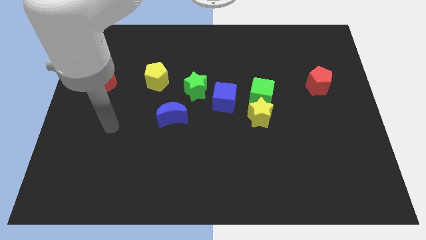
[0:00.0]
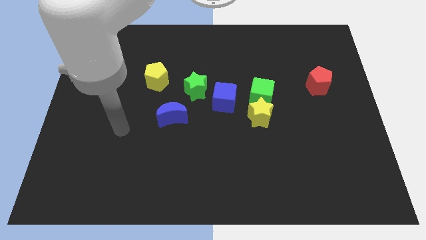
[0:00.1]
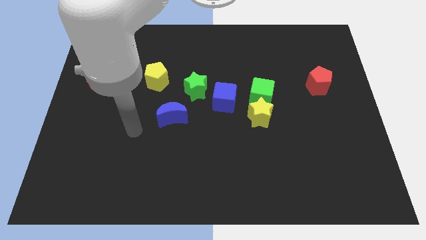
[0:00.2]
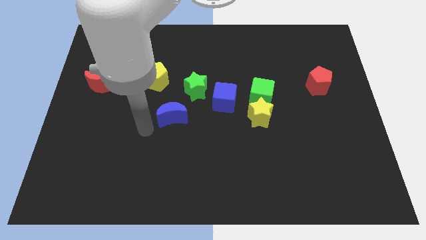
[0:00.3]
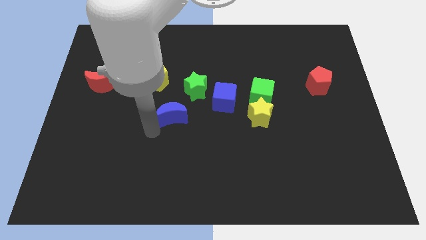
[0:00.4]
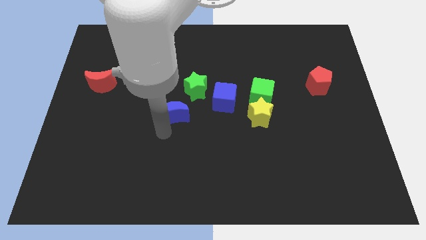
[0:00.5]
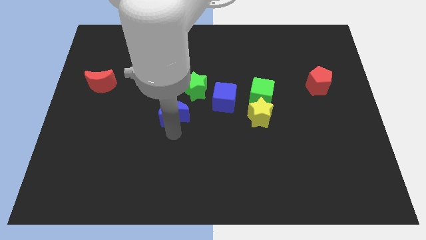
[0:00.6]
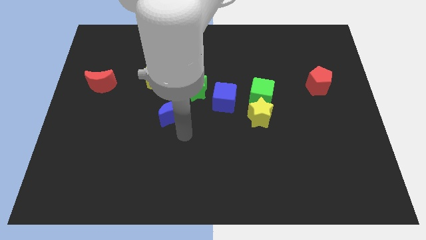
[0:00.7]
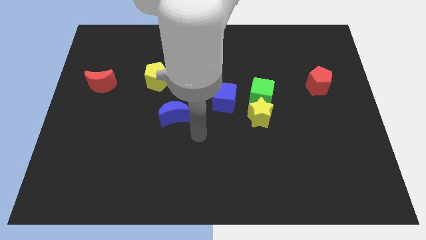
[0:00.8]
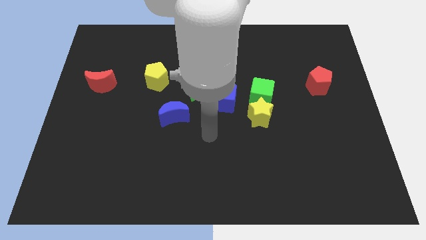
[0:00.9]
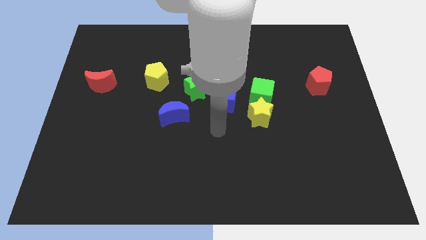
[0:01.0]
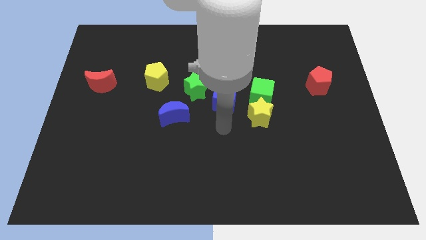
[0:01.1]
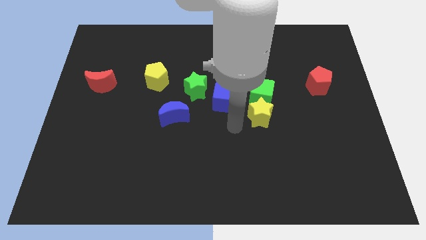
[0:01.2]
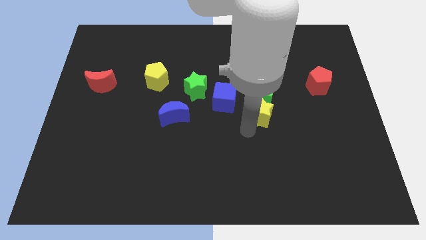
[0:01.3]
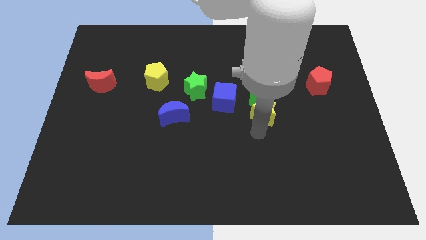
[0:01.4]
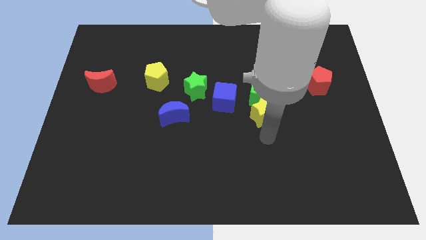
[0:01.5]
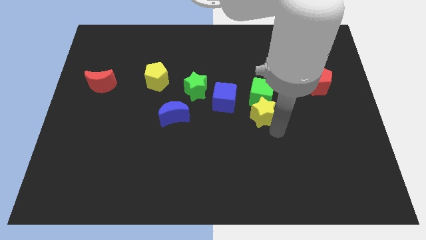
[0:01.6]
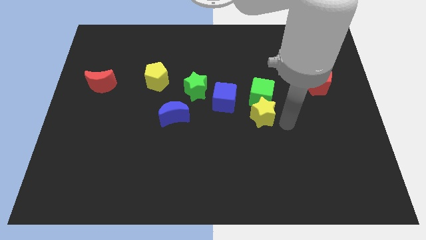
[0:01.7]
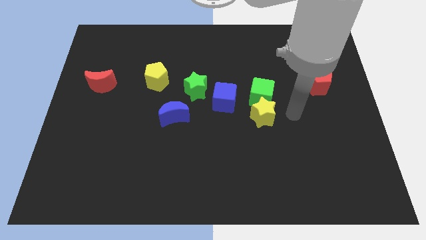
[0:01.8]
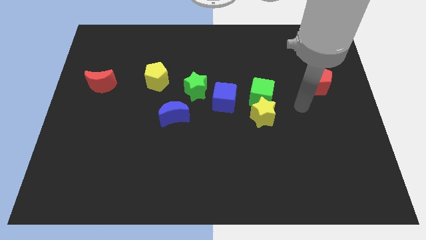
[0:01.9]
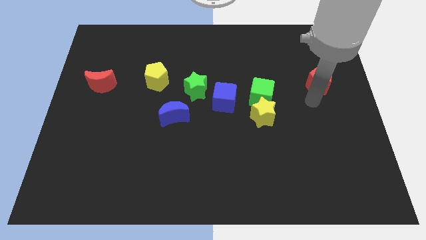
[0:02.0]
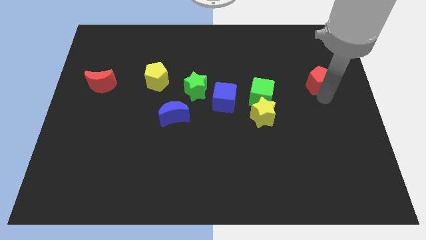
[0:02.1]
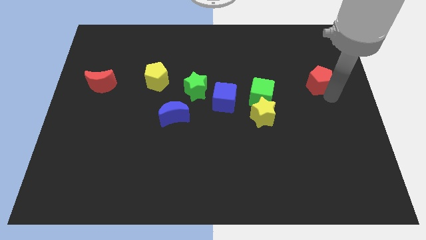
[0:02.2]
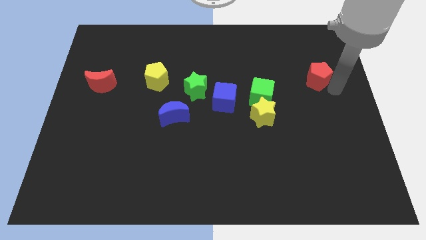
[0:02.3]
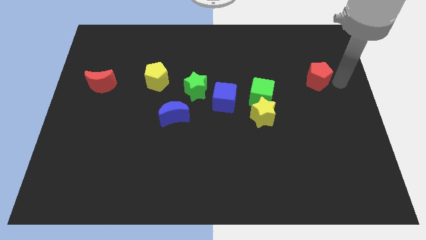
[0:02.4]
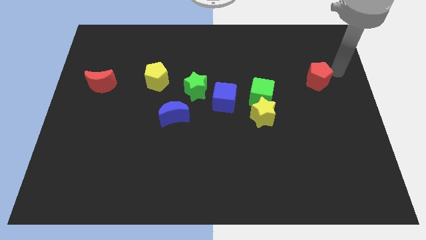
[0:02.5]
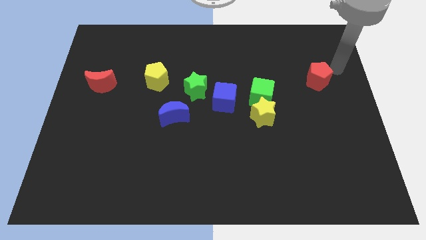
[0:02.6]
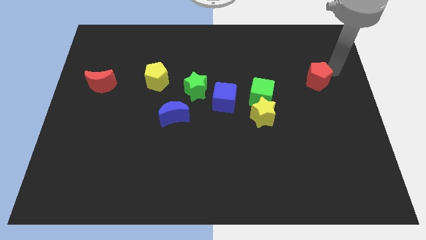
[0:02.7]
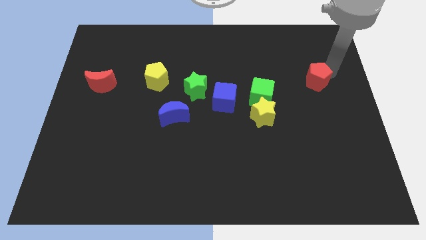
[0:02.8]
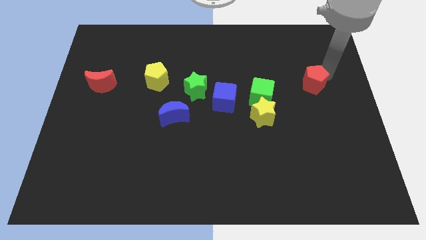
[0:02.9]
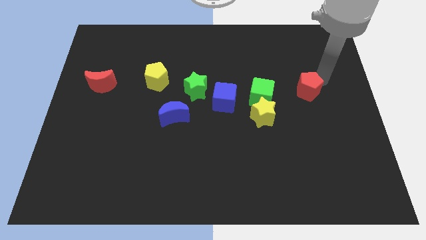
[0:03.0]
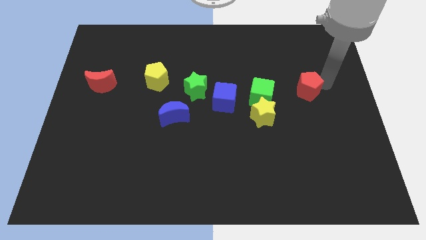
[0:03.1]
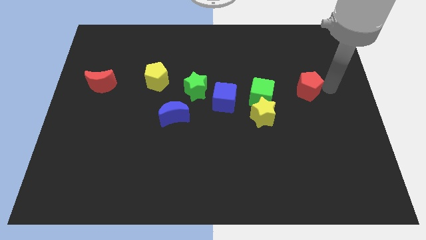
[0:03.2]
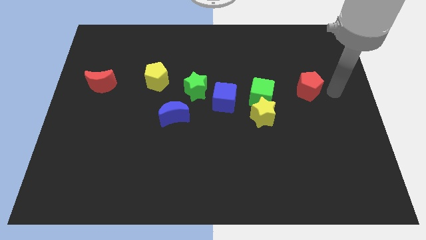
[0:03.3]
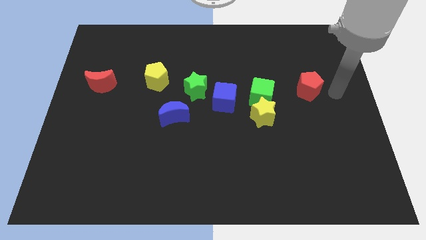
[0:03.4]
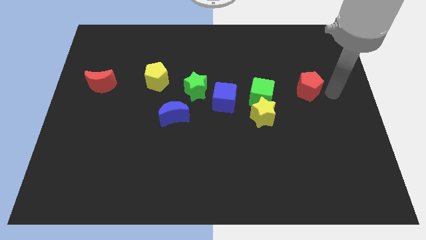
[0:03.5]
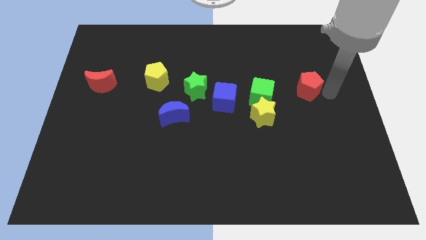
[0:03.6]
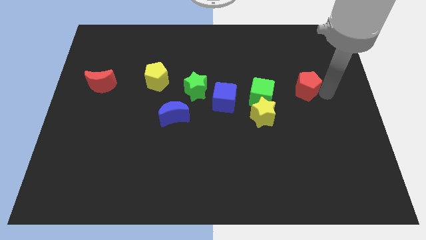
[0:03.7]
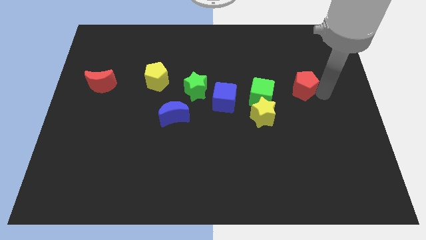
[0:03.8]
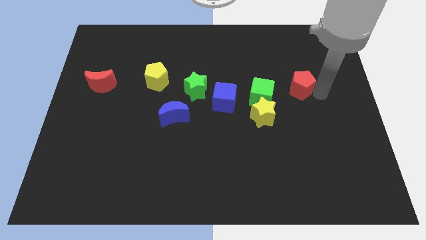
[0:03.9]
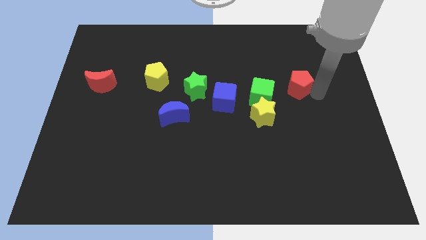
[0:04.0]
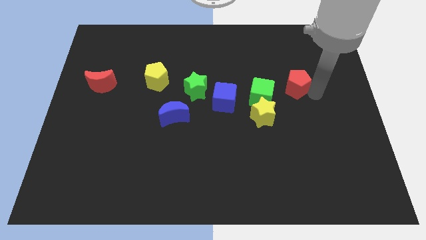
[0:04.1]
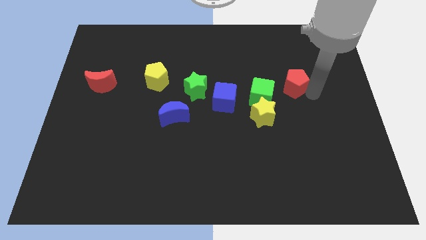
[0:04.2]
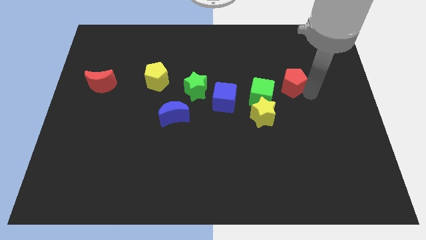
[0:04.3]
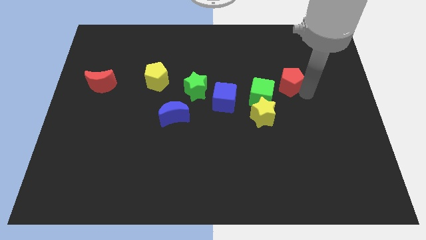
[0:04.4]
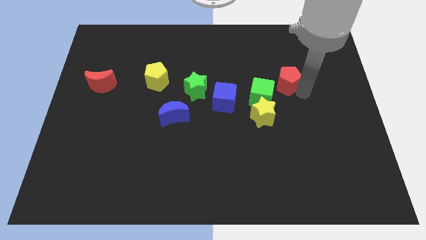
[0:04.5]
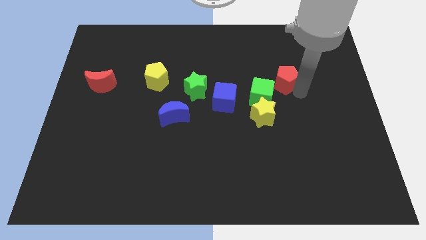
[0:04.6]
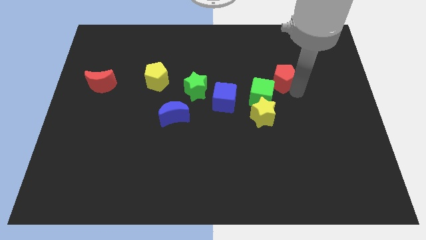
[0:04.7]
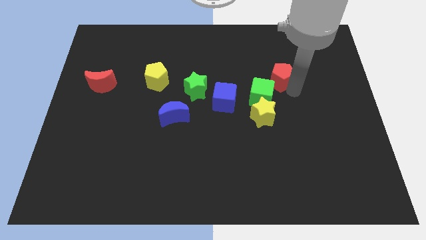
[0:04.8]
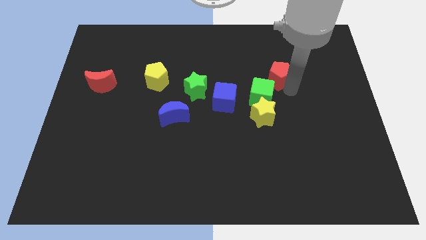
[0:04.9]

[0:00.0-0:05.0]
push the red pentagon above the yellow star

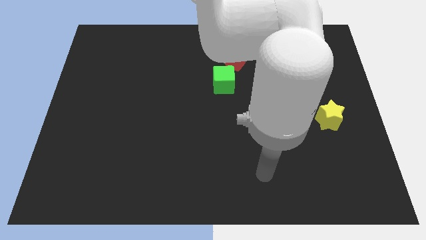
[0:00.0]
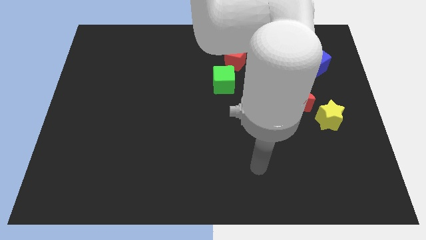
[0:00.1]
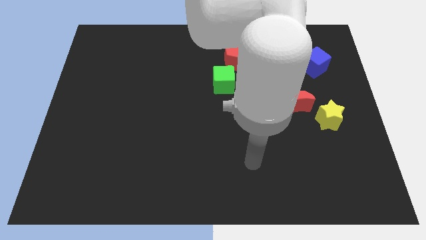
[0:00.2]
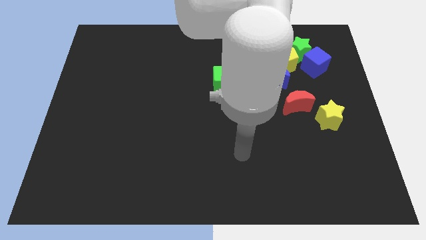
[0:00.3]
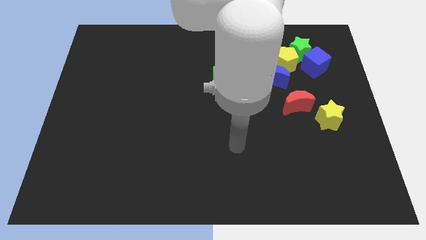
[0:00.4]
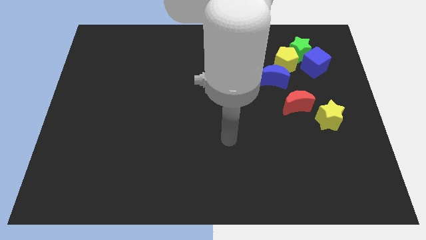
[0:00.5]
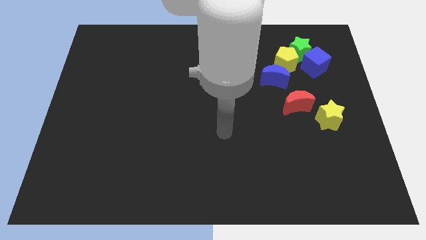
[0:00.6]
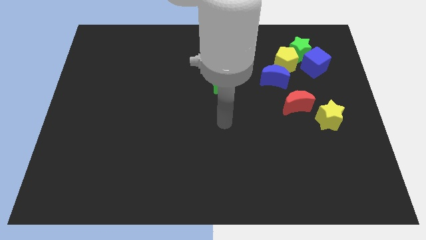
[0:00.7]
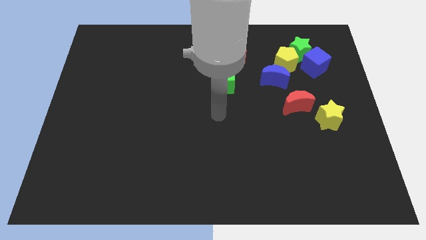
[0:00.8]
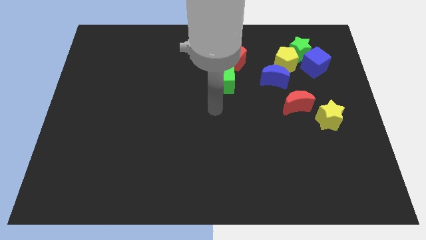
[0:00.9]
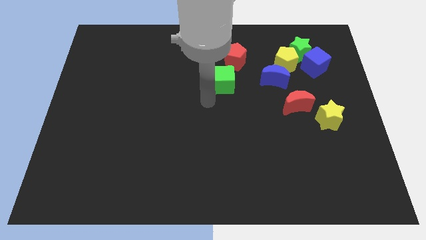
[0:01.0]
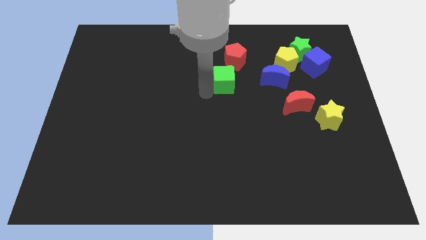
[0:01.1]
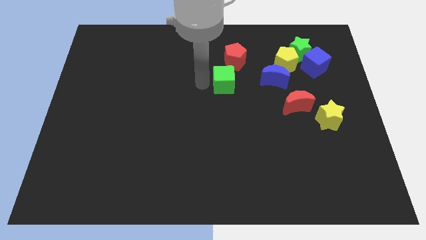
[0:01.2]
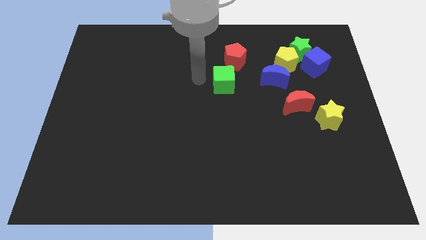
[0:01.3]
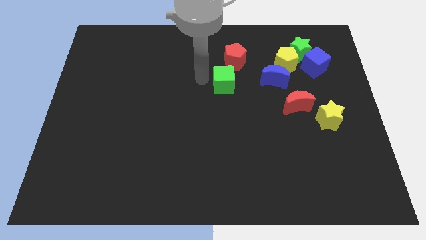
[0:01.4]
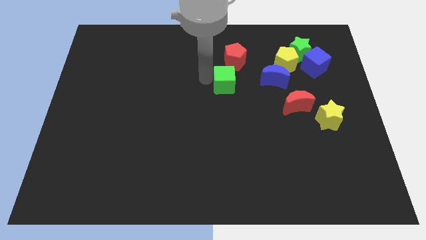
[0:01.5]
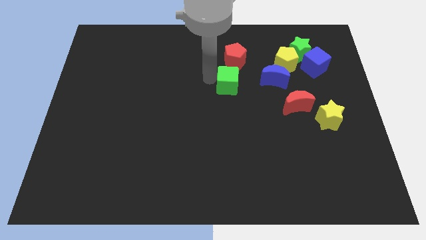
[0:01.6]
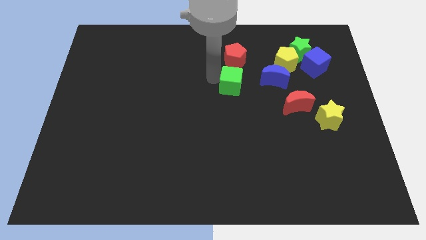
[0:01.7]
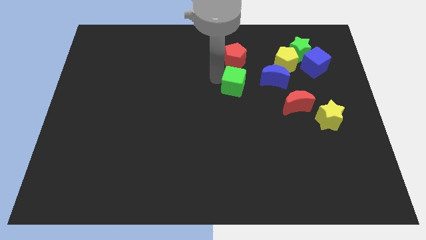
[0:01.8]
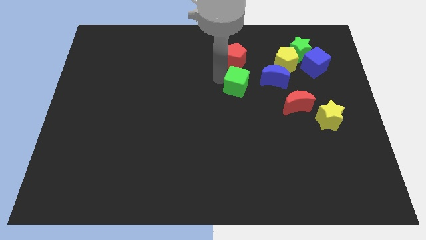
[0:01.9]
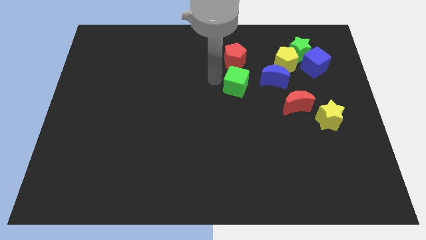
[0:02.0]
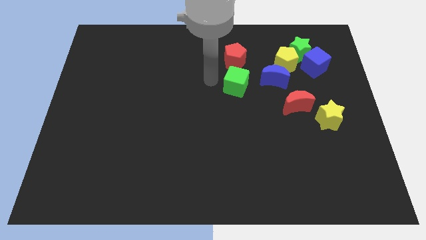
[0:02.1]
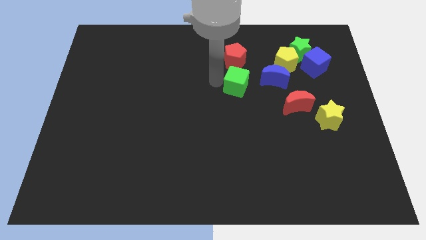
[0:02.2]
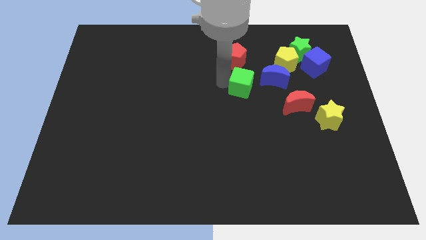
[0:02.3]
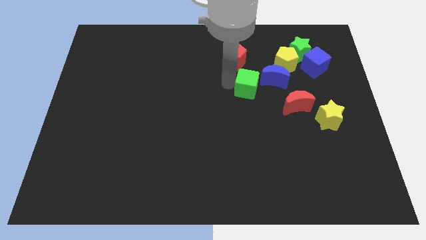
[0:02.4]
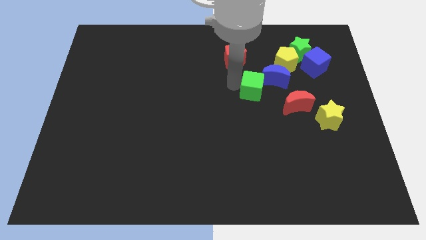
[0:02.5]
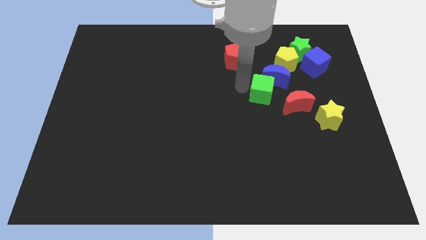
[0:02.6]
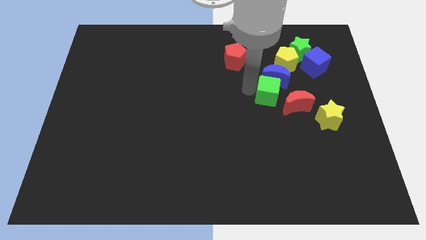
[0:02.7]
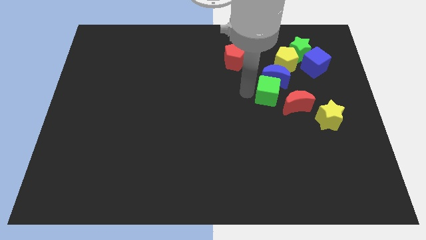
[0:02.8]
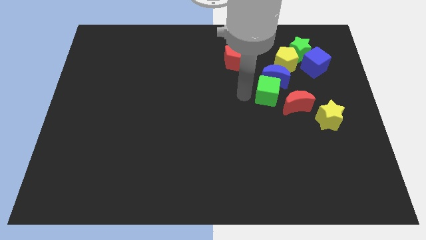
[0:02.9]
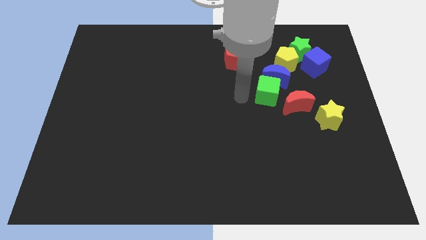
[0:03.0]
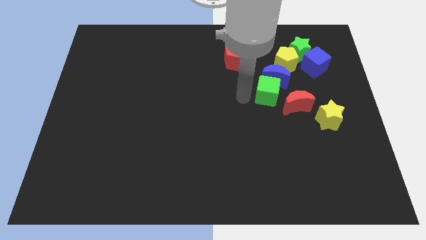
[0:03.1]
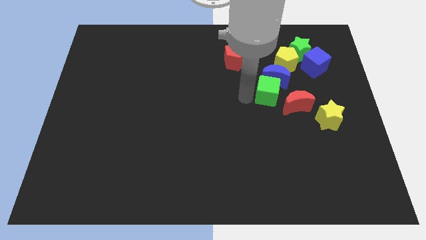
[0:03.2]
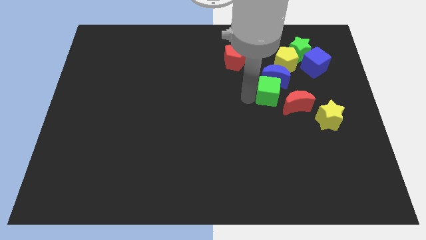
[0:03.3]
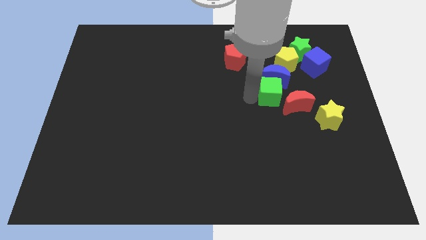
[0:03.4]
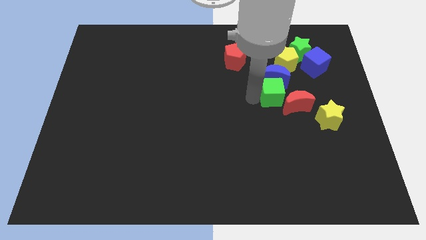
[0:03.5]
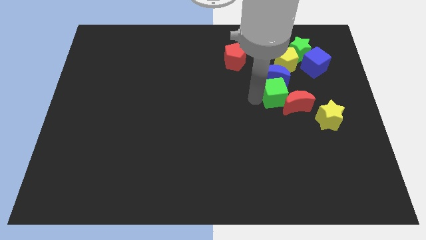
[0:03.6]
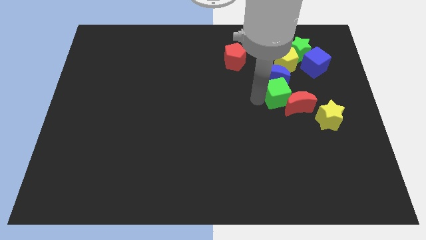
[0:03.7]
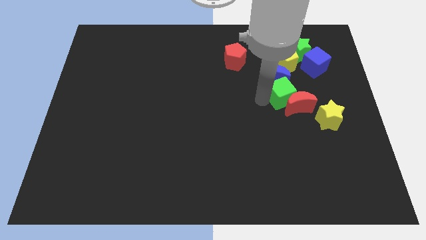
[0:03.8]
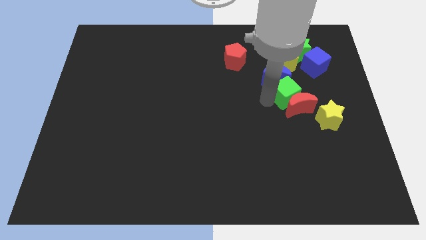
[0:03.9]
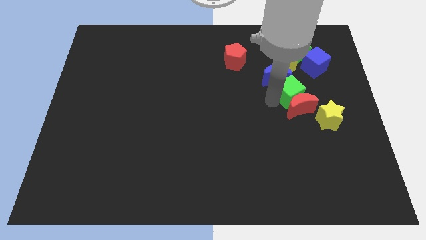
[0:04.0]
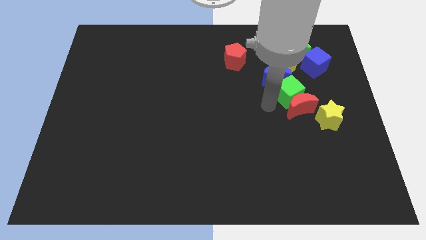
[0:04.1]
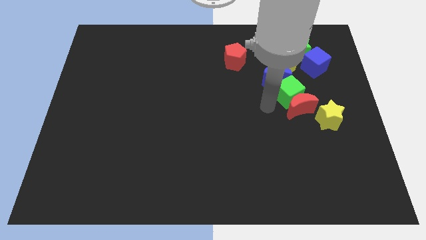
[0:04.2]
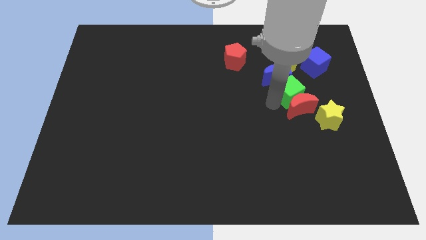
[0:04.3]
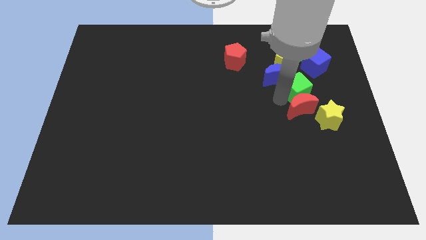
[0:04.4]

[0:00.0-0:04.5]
push the green cube to the right side of the blue moon
